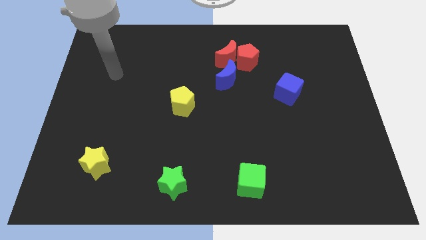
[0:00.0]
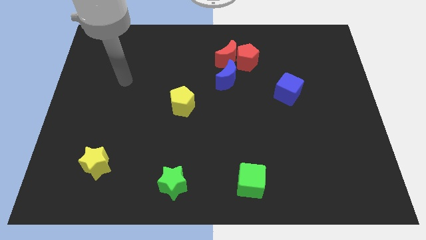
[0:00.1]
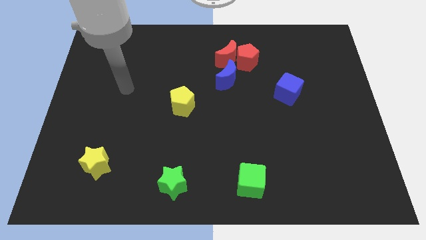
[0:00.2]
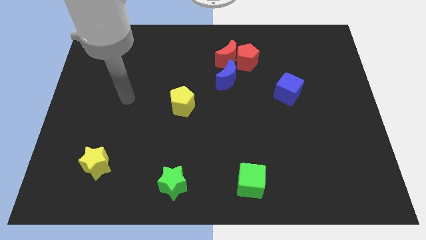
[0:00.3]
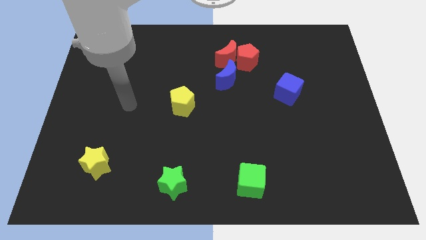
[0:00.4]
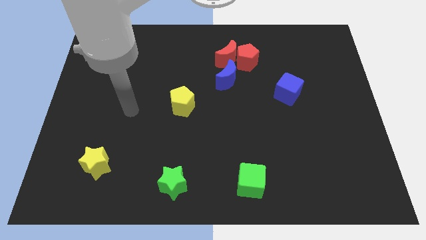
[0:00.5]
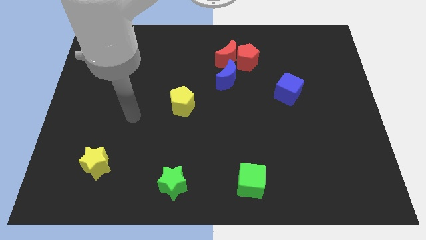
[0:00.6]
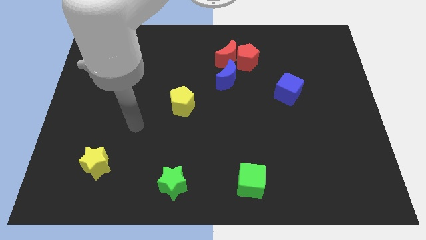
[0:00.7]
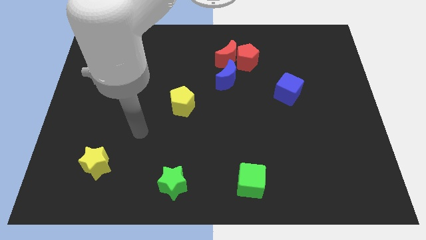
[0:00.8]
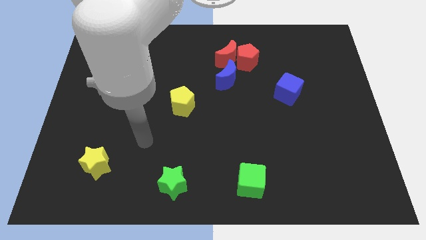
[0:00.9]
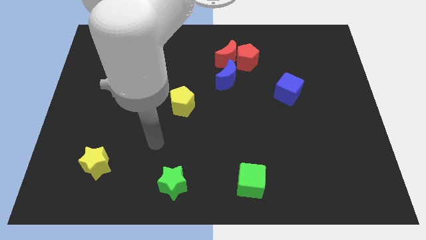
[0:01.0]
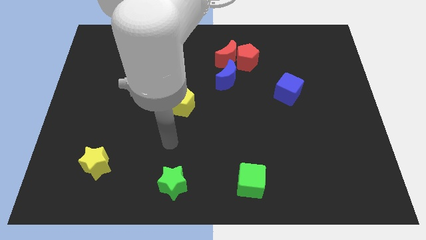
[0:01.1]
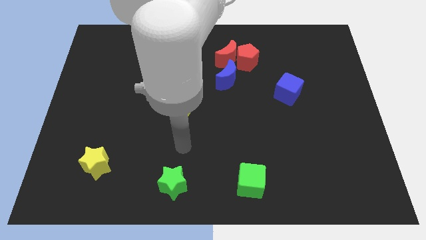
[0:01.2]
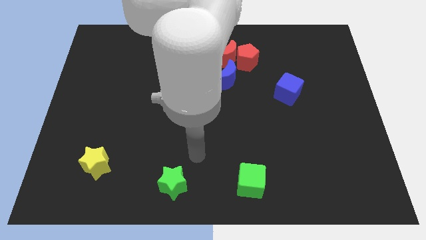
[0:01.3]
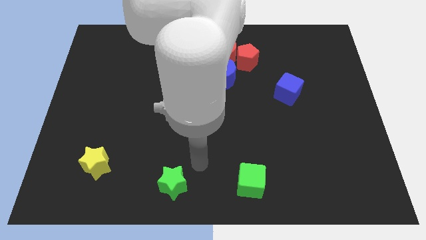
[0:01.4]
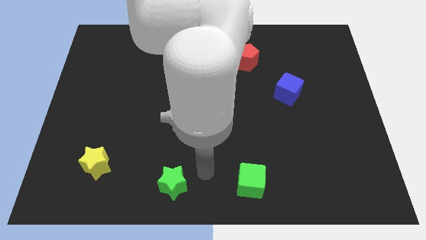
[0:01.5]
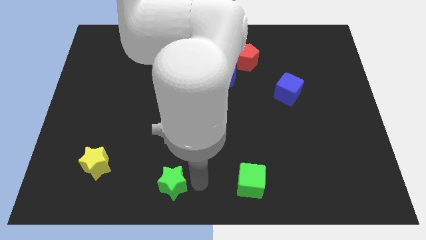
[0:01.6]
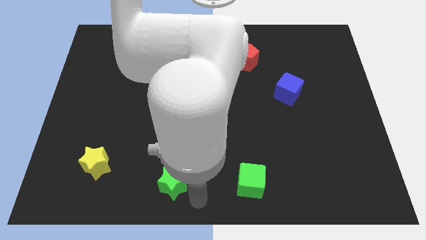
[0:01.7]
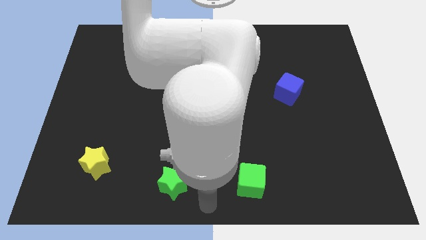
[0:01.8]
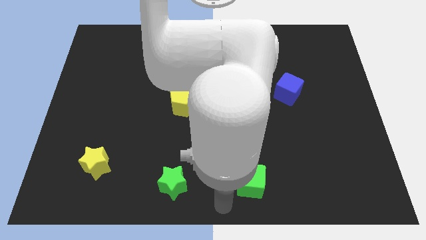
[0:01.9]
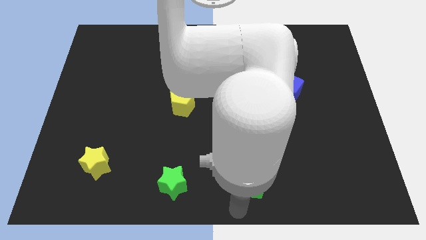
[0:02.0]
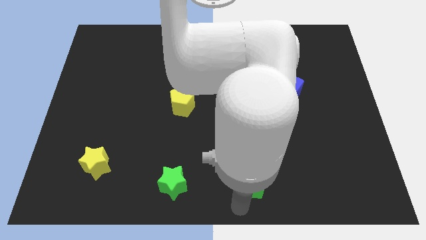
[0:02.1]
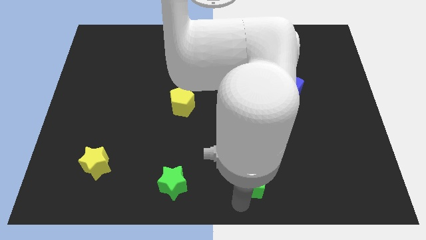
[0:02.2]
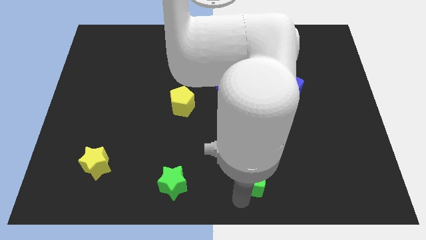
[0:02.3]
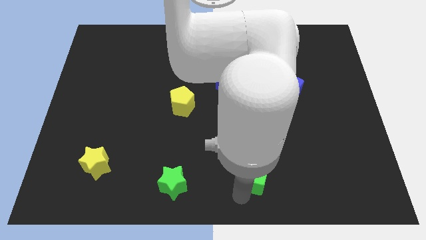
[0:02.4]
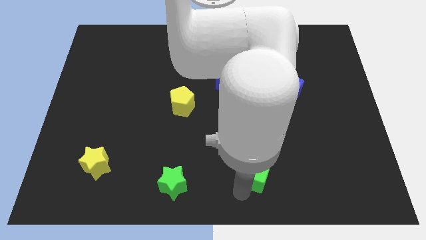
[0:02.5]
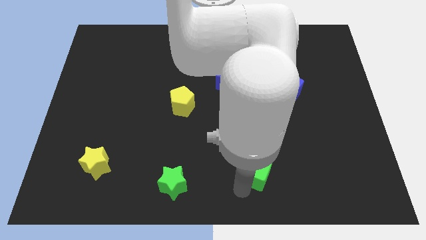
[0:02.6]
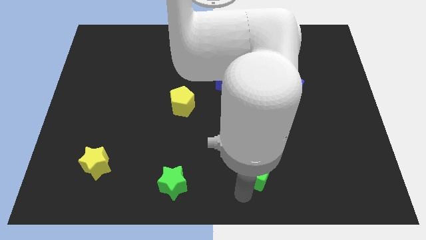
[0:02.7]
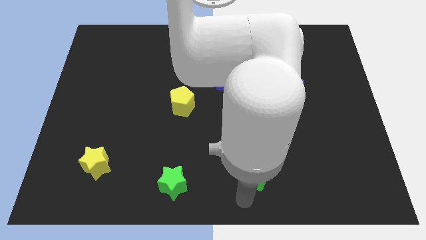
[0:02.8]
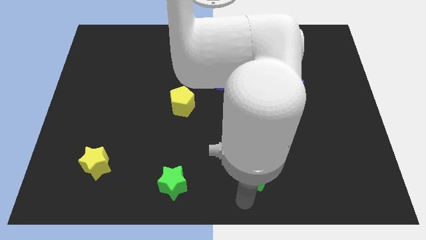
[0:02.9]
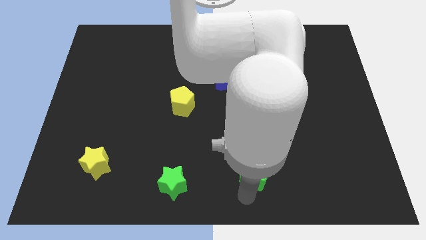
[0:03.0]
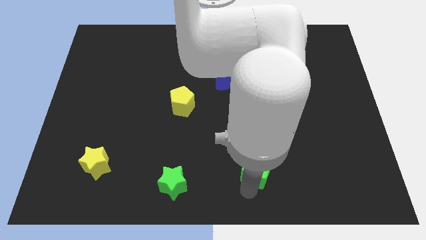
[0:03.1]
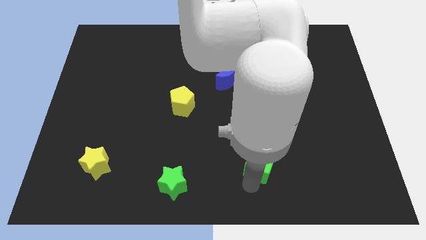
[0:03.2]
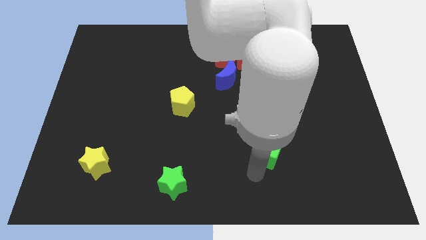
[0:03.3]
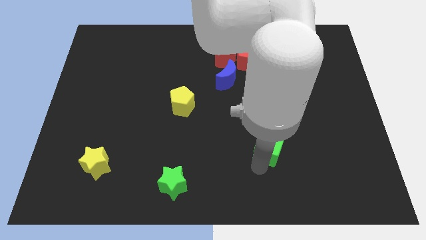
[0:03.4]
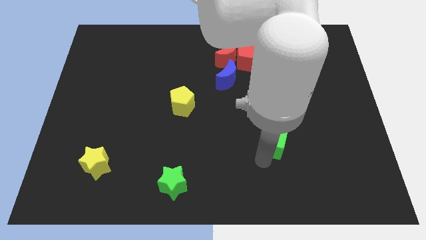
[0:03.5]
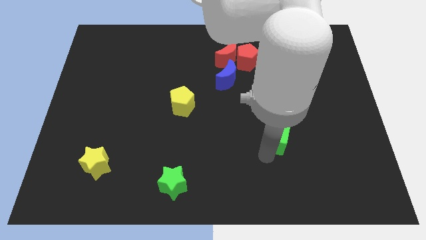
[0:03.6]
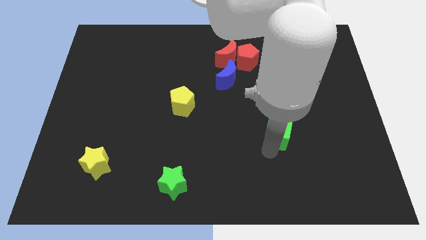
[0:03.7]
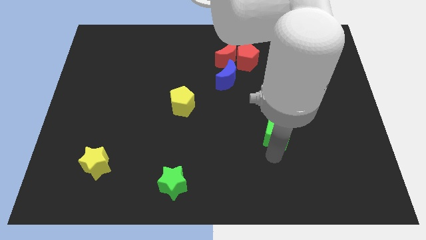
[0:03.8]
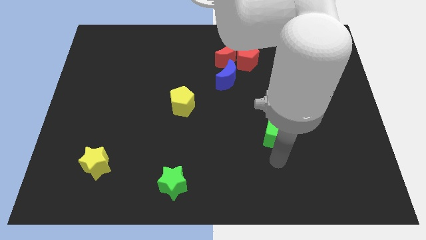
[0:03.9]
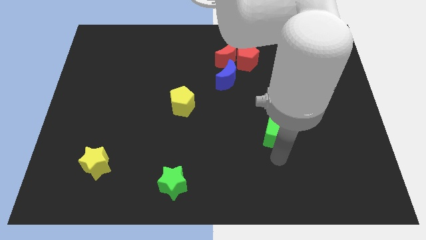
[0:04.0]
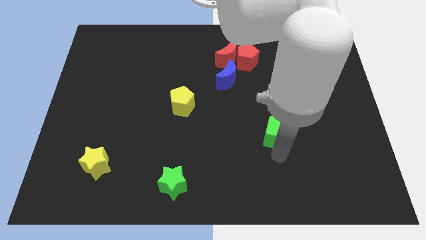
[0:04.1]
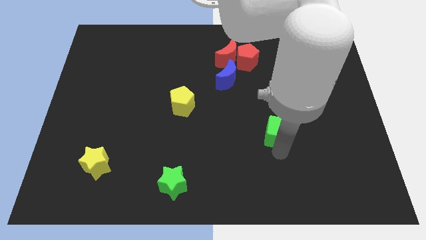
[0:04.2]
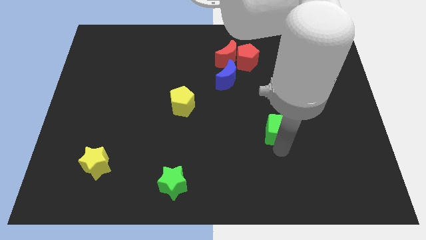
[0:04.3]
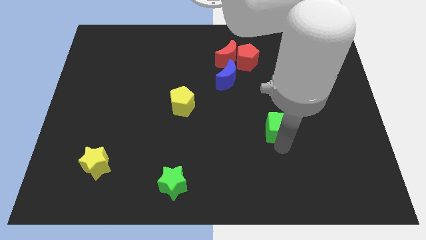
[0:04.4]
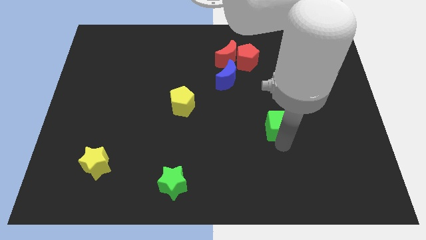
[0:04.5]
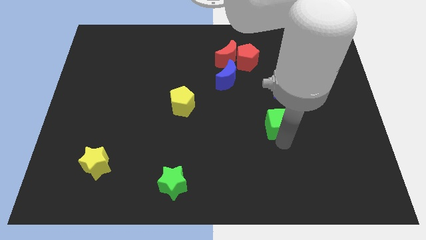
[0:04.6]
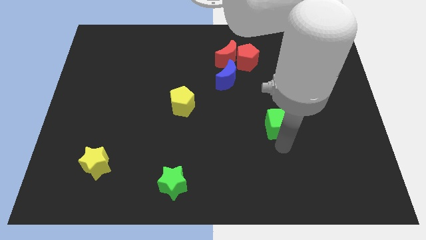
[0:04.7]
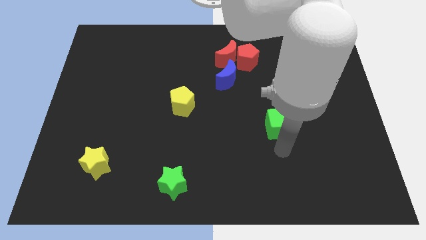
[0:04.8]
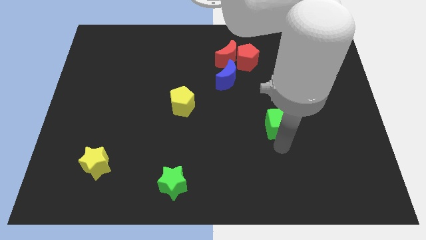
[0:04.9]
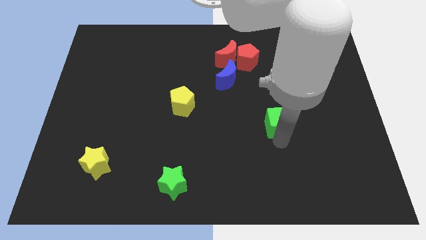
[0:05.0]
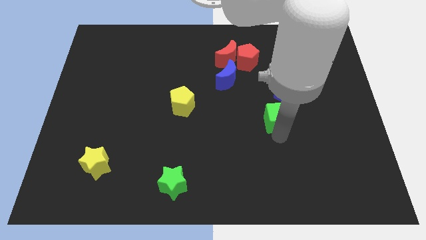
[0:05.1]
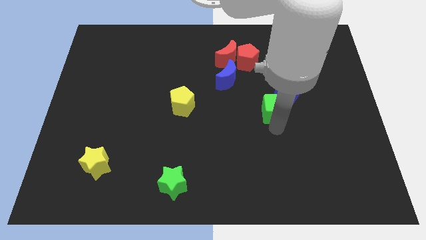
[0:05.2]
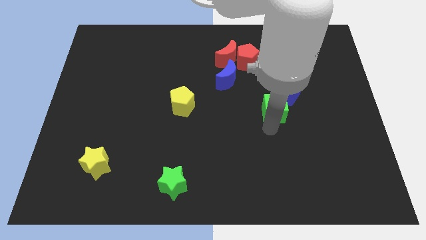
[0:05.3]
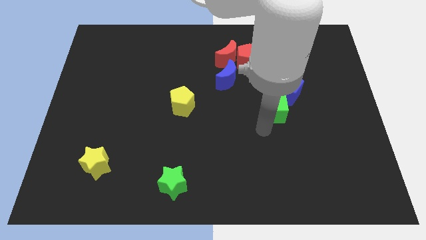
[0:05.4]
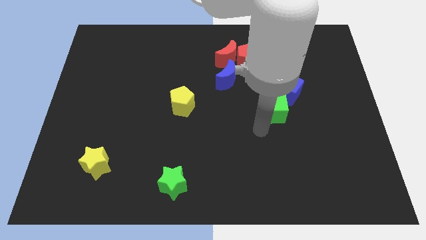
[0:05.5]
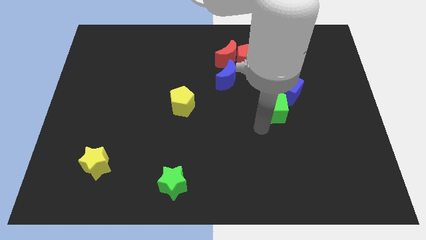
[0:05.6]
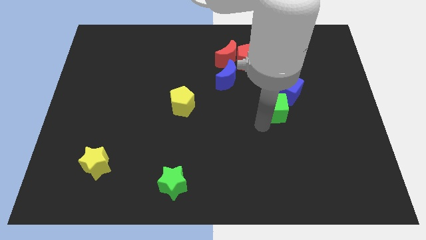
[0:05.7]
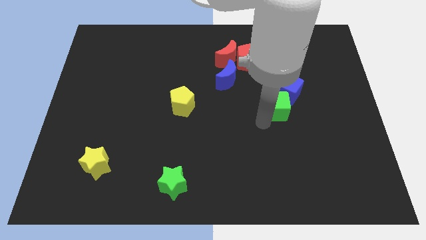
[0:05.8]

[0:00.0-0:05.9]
slide the green cube to the blue cube

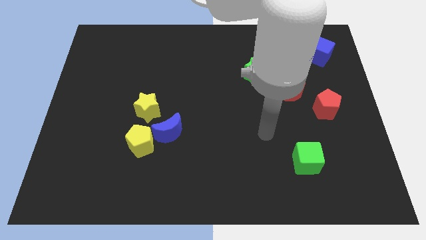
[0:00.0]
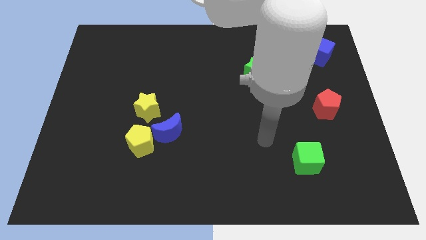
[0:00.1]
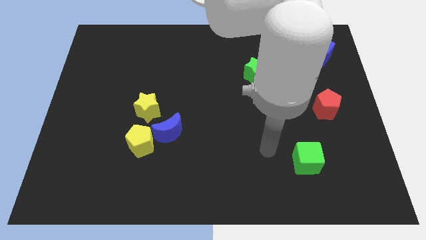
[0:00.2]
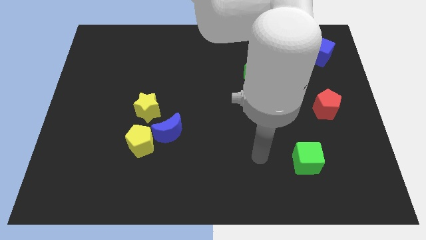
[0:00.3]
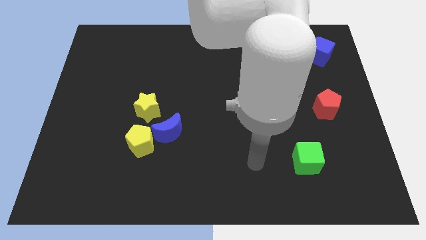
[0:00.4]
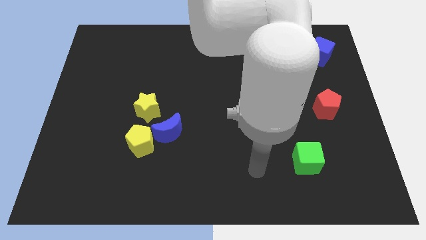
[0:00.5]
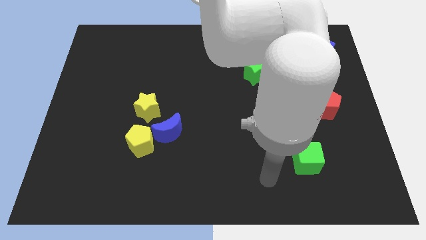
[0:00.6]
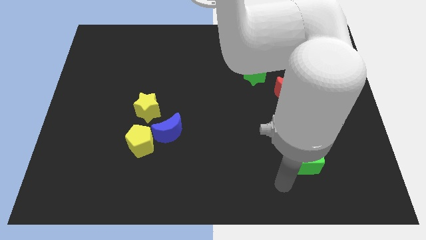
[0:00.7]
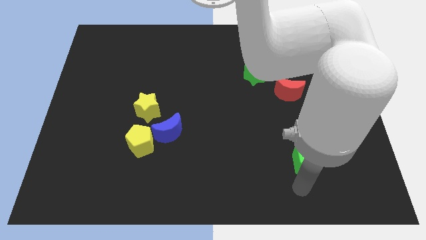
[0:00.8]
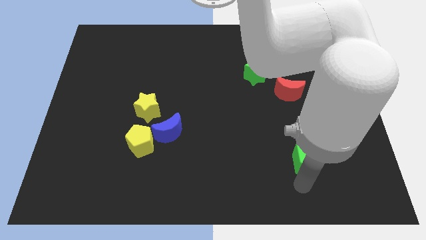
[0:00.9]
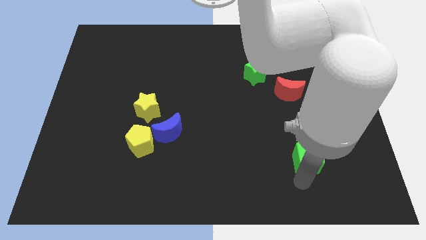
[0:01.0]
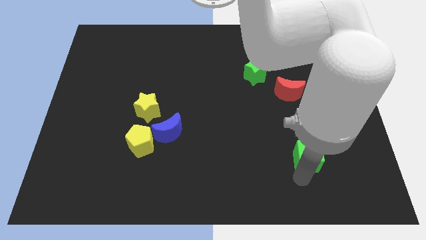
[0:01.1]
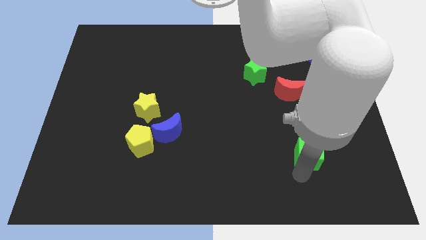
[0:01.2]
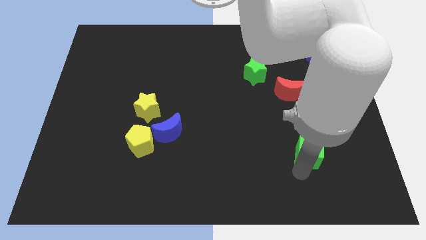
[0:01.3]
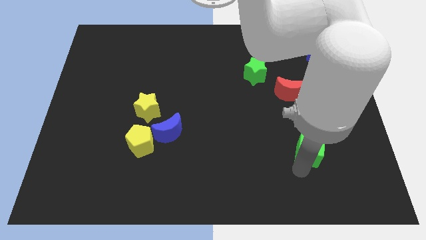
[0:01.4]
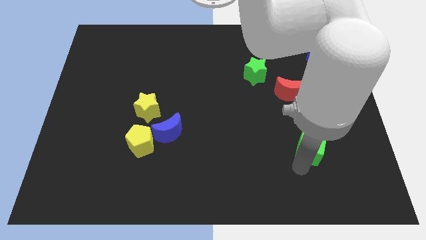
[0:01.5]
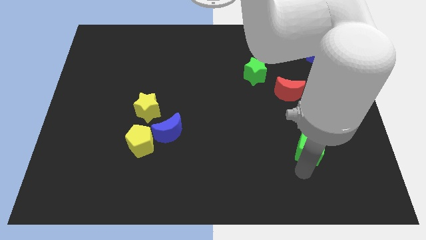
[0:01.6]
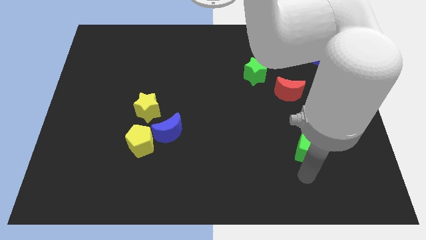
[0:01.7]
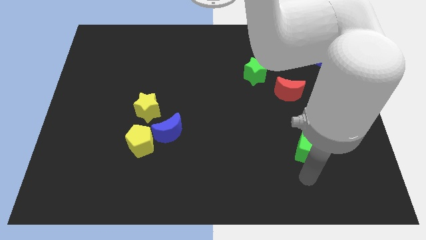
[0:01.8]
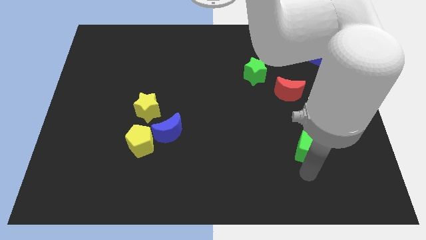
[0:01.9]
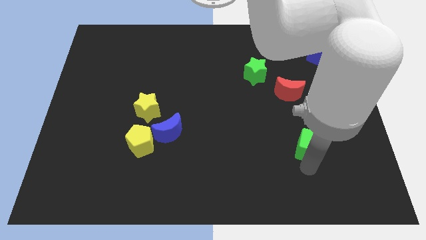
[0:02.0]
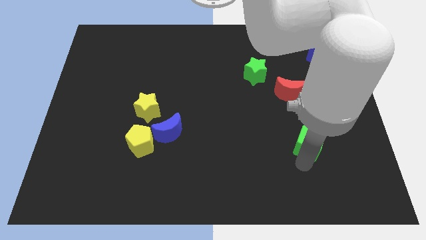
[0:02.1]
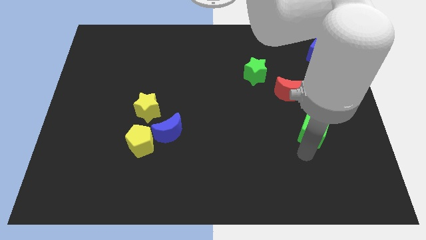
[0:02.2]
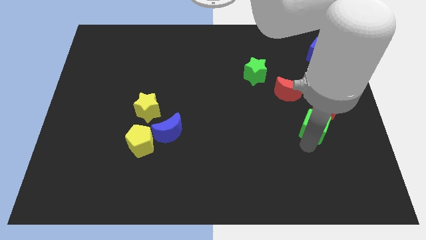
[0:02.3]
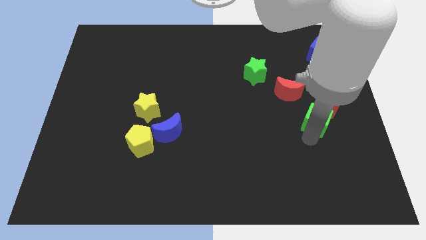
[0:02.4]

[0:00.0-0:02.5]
slide the green cube next to the red pentagon

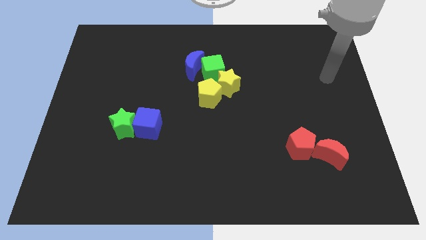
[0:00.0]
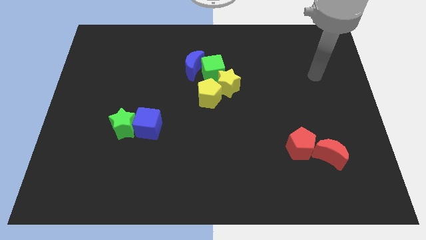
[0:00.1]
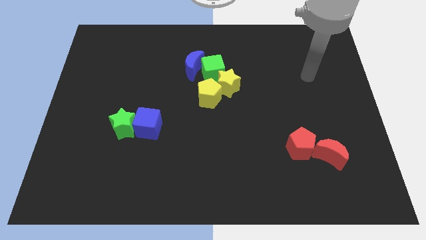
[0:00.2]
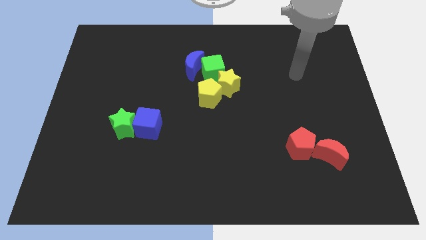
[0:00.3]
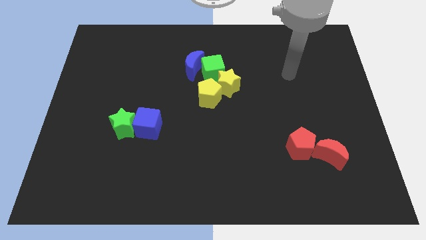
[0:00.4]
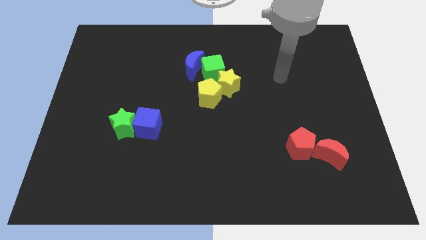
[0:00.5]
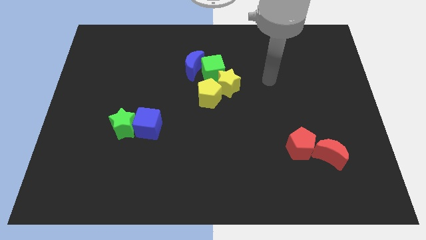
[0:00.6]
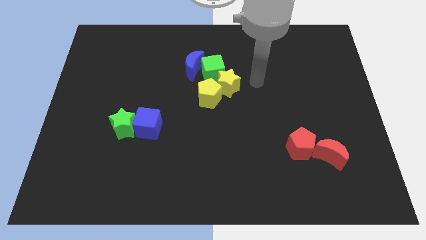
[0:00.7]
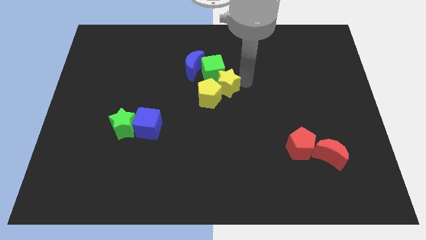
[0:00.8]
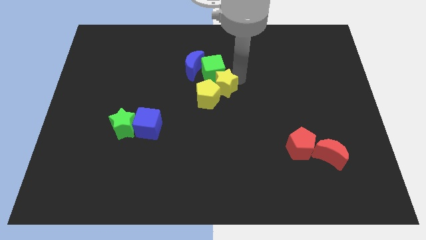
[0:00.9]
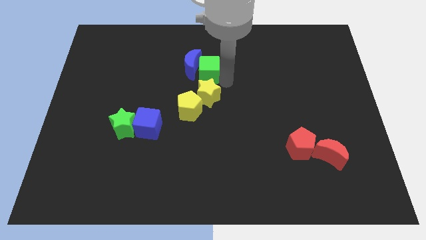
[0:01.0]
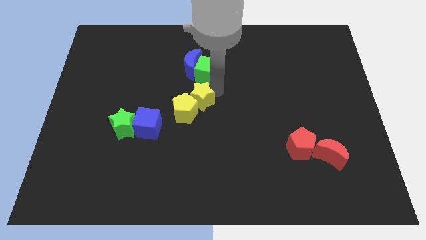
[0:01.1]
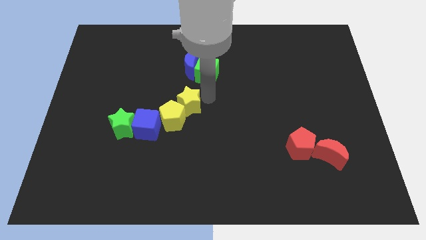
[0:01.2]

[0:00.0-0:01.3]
push the yellow pentagon towards the blue cube
